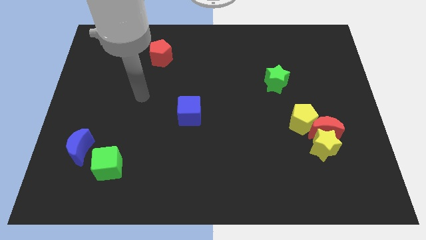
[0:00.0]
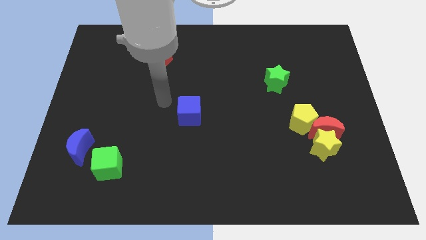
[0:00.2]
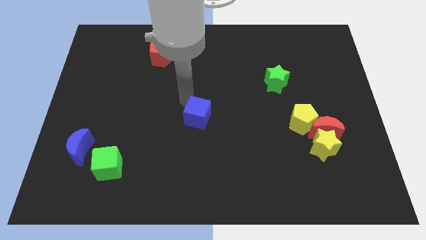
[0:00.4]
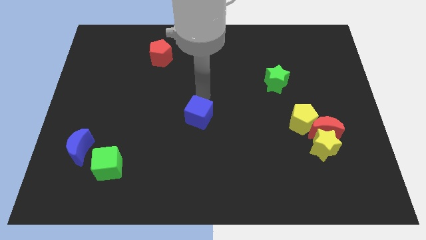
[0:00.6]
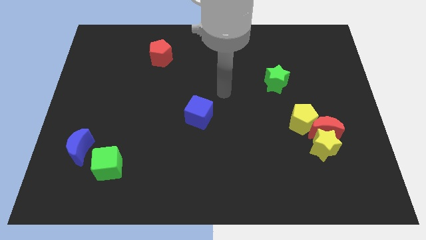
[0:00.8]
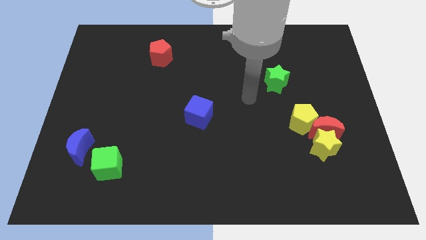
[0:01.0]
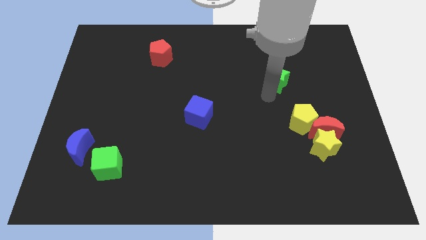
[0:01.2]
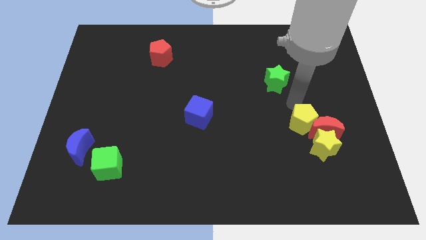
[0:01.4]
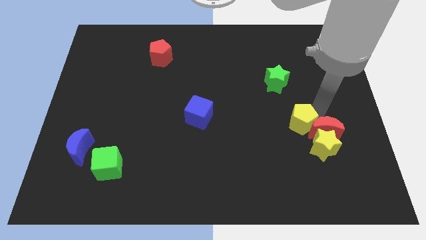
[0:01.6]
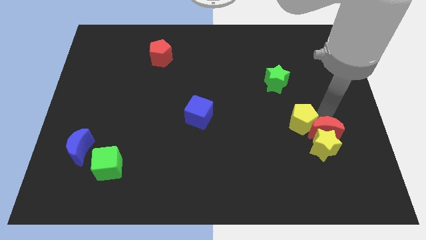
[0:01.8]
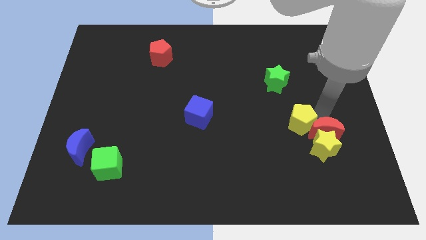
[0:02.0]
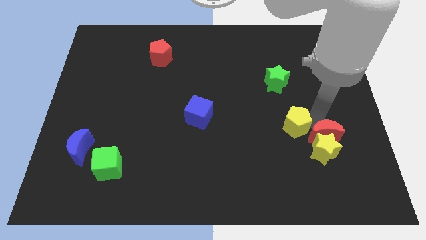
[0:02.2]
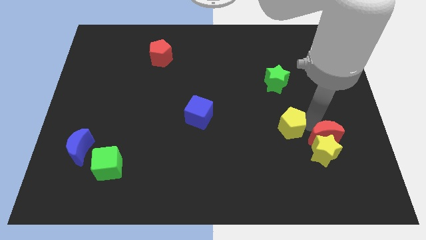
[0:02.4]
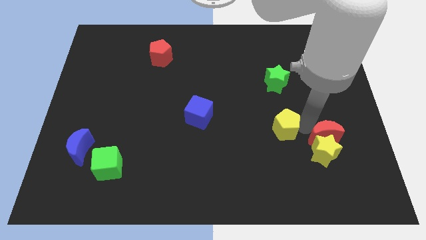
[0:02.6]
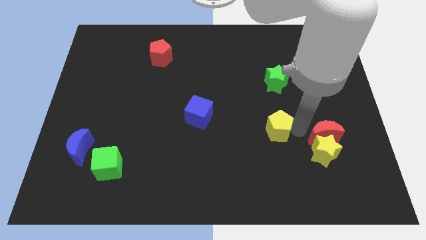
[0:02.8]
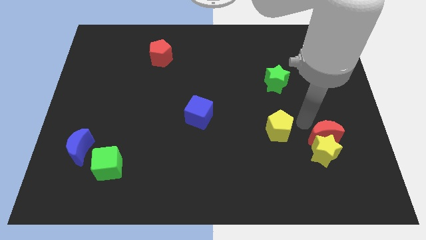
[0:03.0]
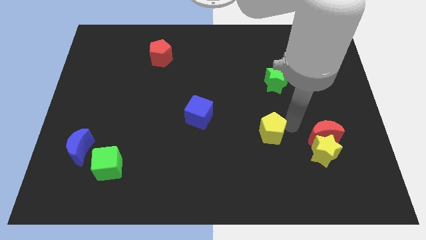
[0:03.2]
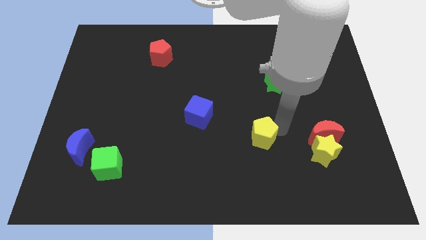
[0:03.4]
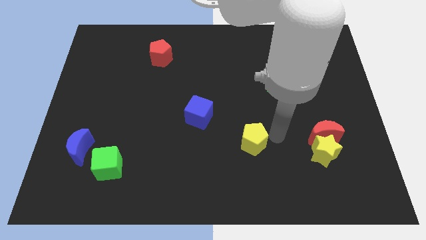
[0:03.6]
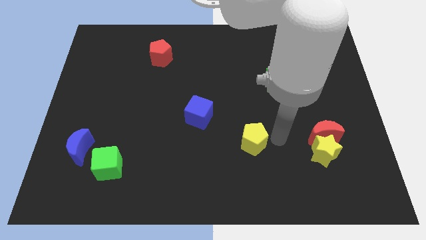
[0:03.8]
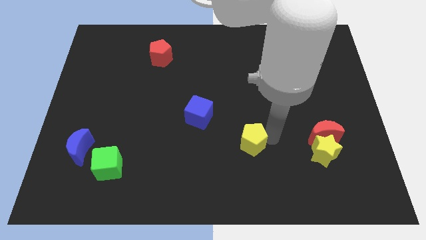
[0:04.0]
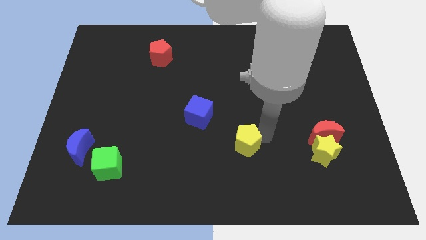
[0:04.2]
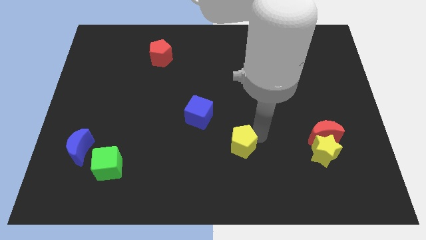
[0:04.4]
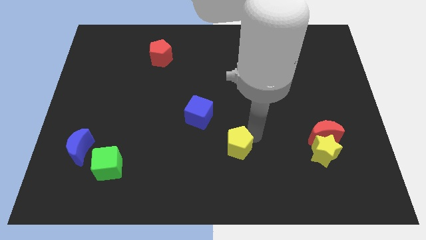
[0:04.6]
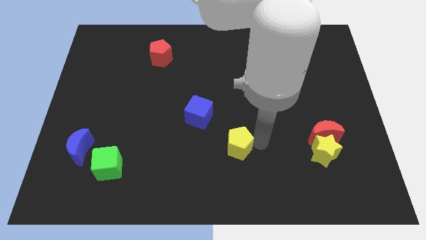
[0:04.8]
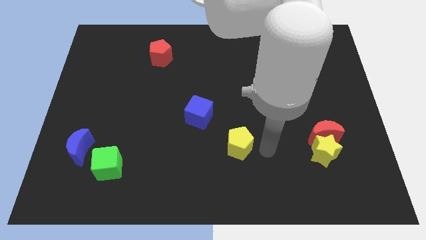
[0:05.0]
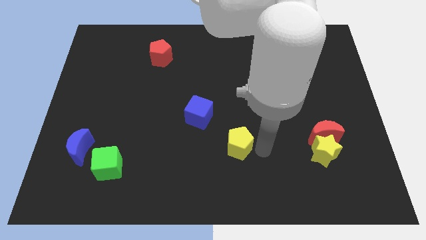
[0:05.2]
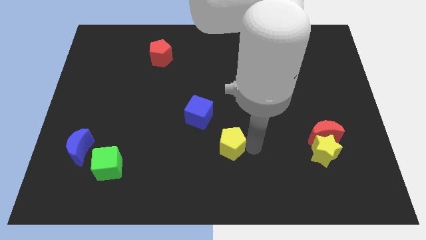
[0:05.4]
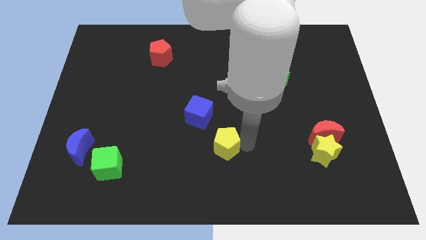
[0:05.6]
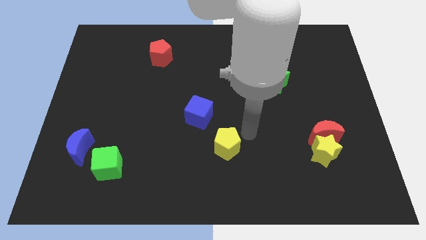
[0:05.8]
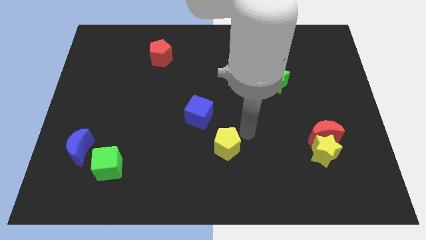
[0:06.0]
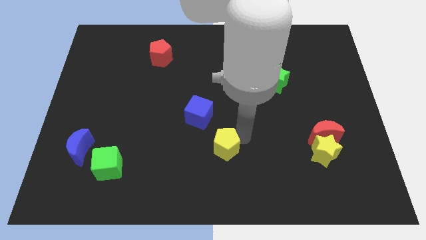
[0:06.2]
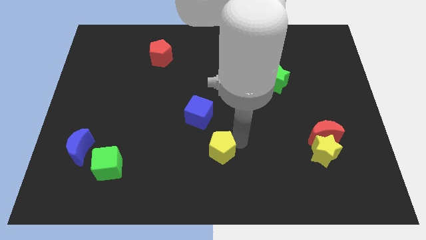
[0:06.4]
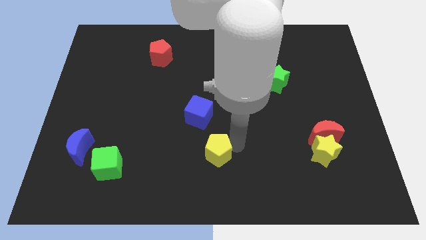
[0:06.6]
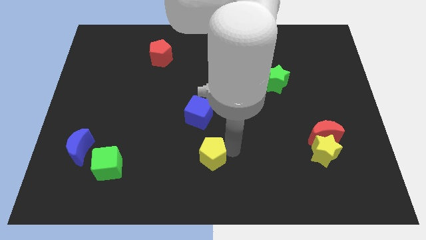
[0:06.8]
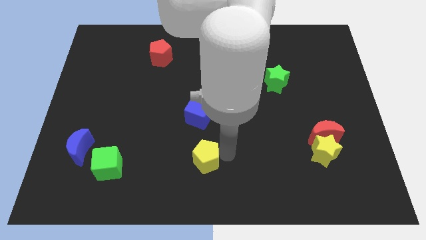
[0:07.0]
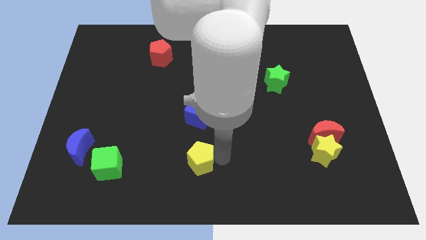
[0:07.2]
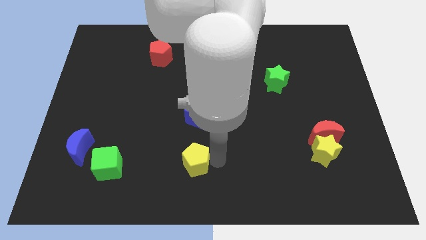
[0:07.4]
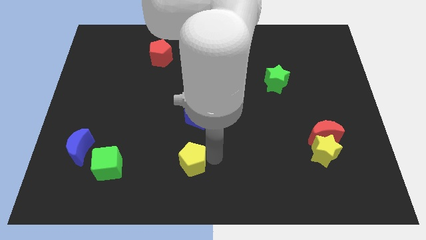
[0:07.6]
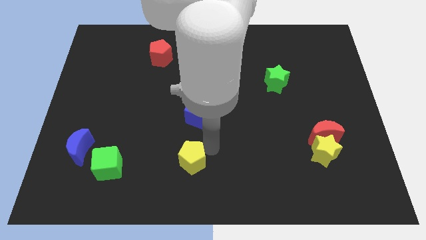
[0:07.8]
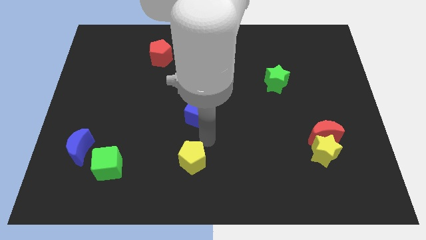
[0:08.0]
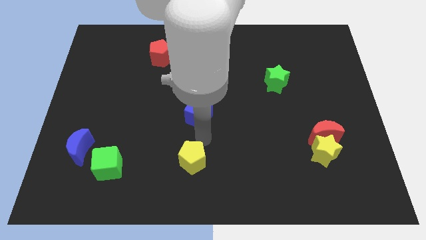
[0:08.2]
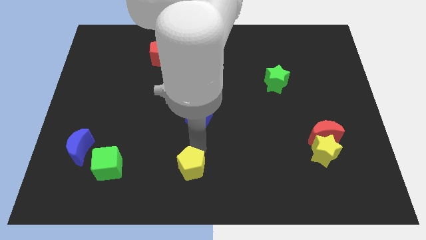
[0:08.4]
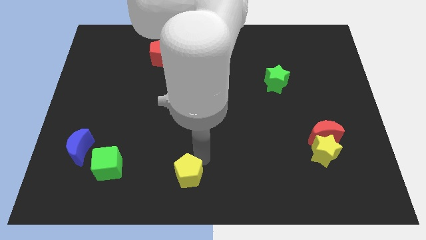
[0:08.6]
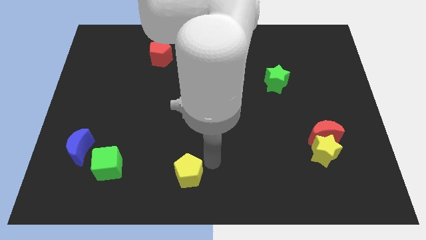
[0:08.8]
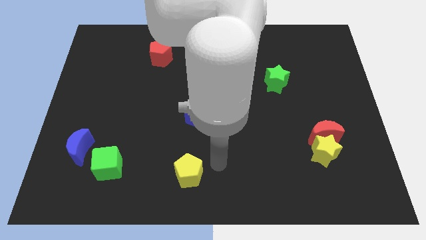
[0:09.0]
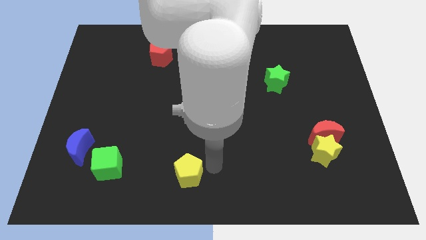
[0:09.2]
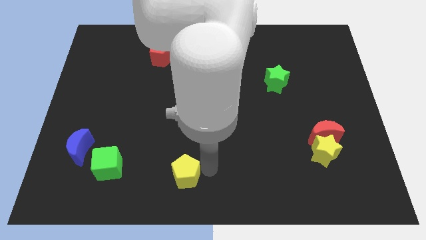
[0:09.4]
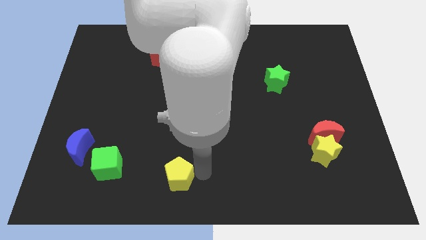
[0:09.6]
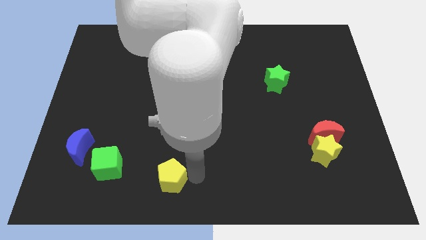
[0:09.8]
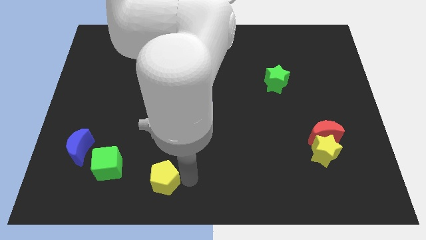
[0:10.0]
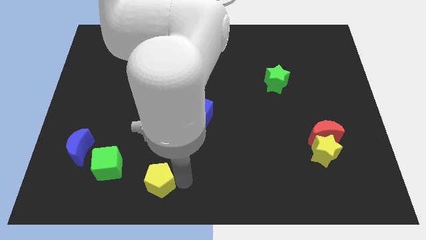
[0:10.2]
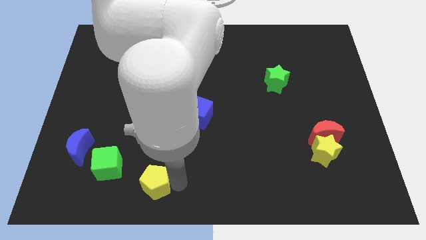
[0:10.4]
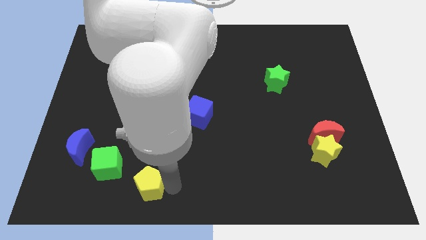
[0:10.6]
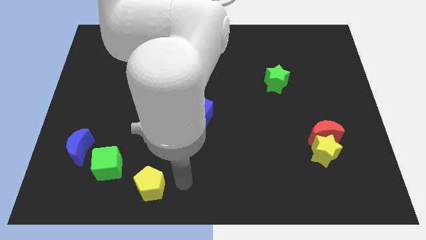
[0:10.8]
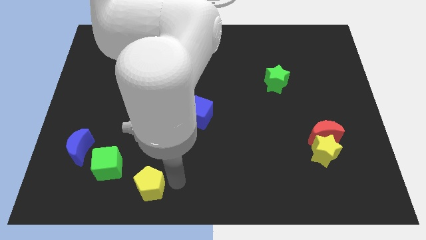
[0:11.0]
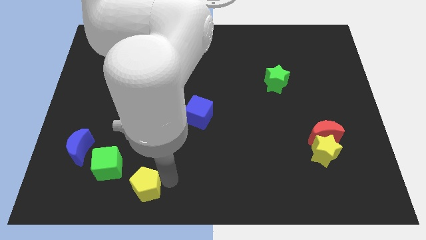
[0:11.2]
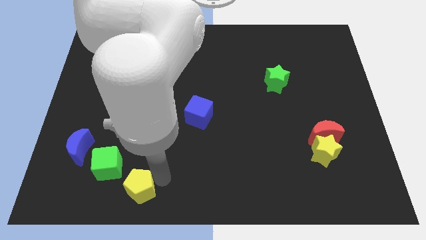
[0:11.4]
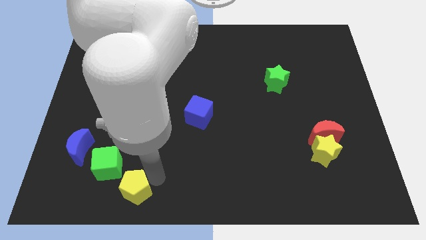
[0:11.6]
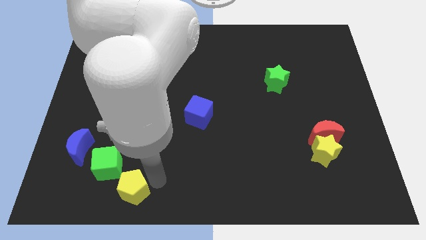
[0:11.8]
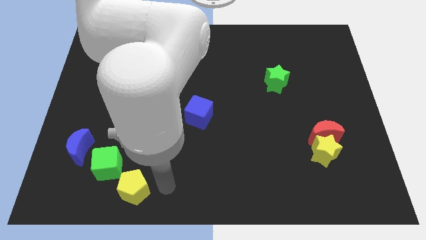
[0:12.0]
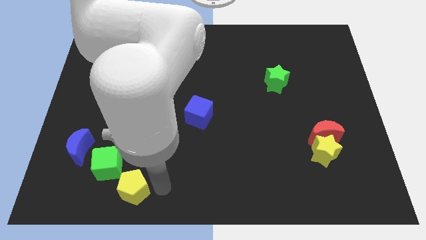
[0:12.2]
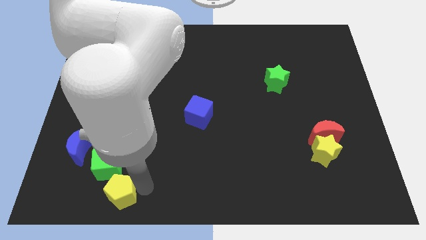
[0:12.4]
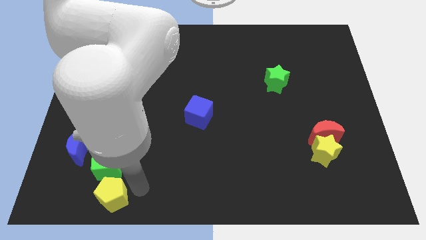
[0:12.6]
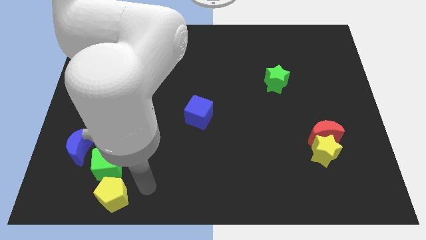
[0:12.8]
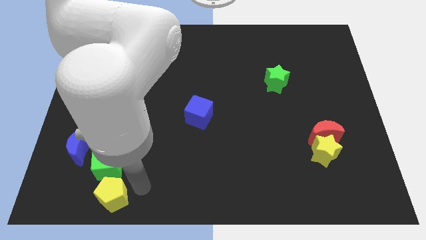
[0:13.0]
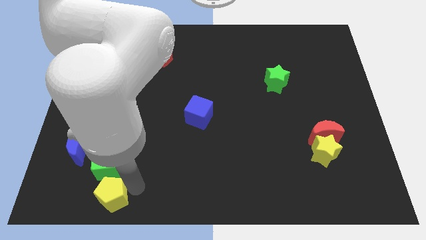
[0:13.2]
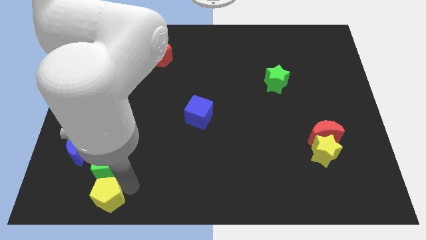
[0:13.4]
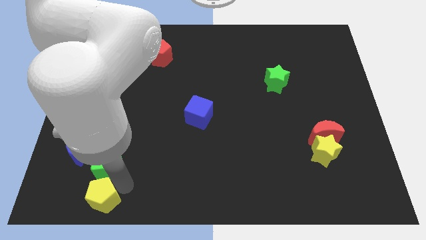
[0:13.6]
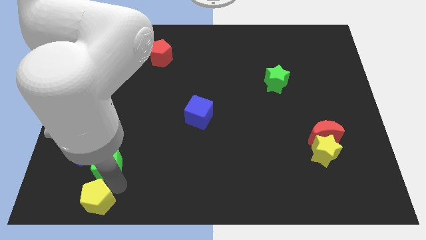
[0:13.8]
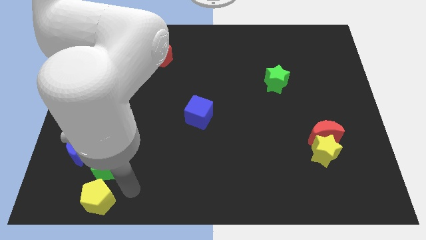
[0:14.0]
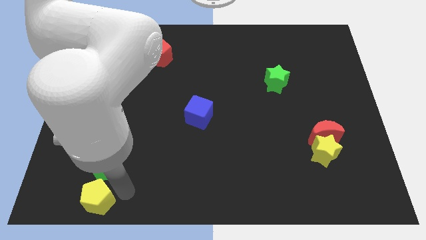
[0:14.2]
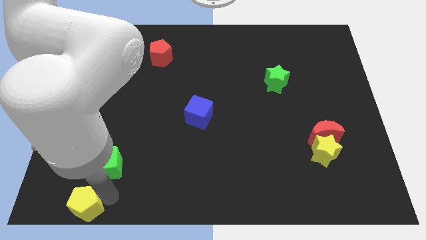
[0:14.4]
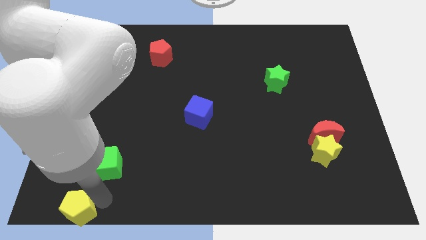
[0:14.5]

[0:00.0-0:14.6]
move the yellow pentagon to the bottom left corner
